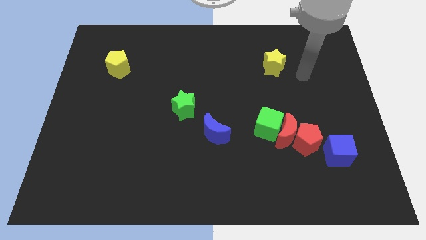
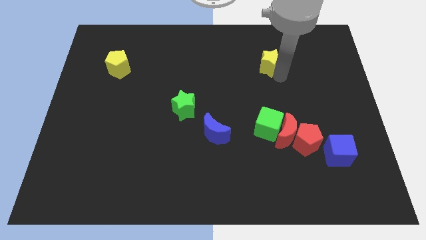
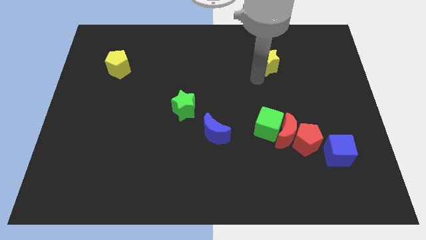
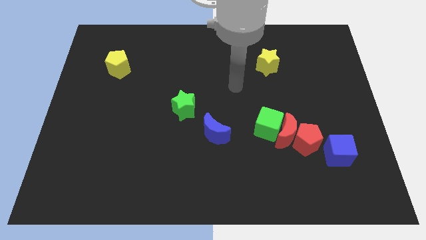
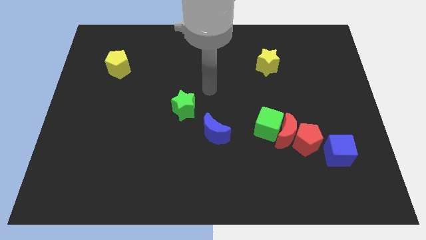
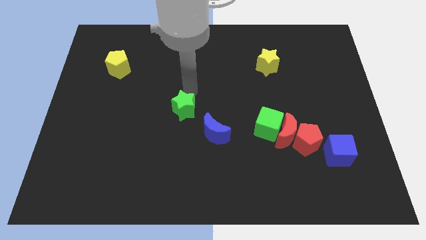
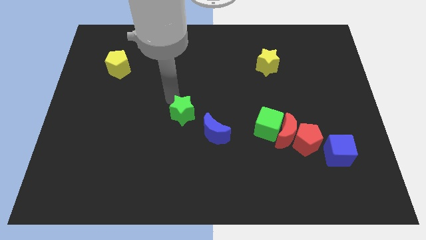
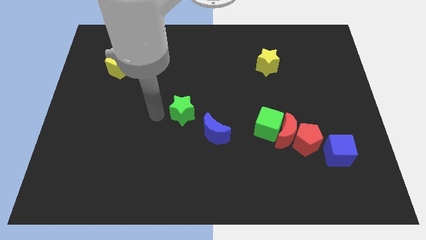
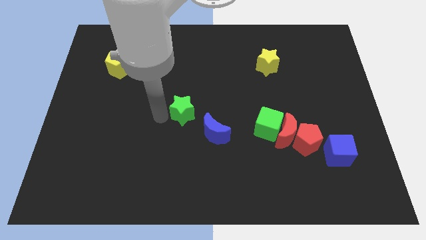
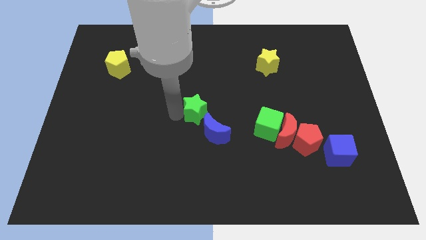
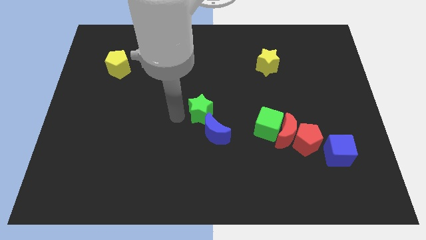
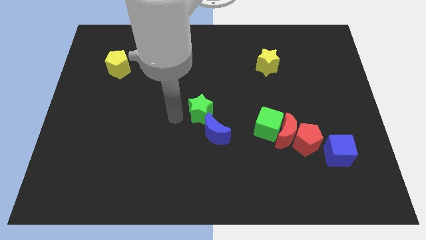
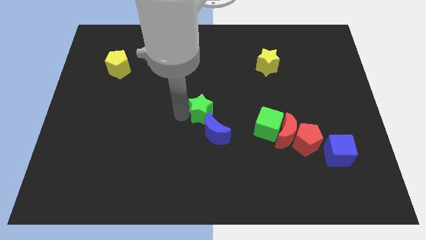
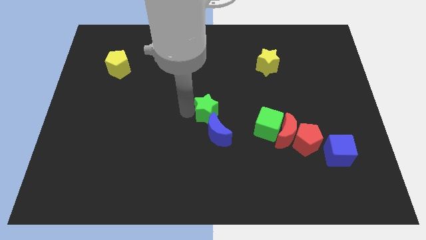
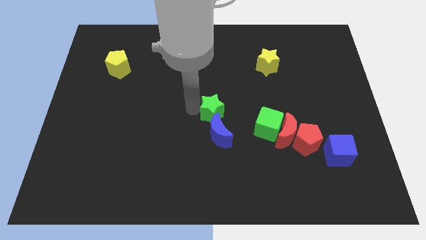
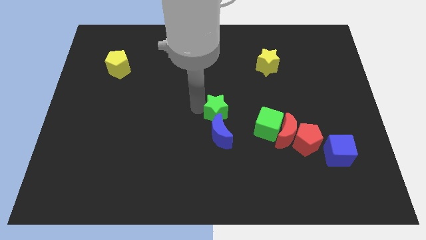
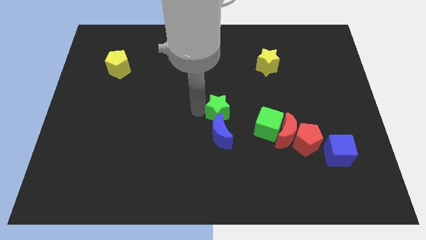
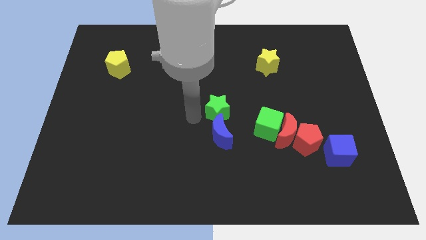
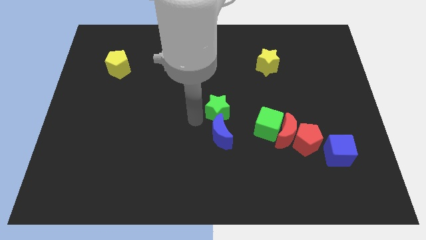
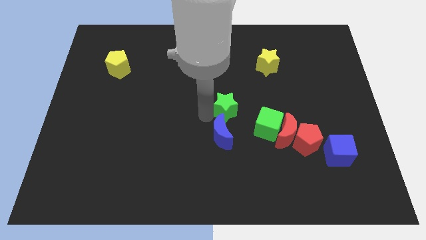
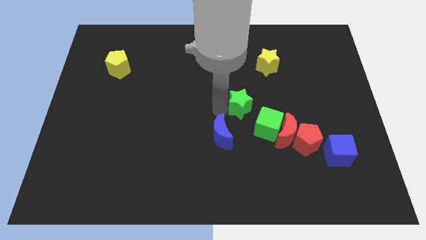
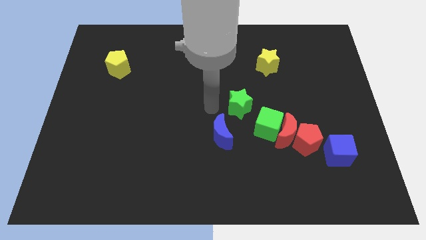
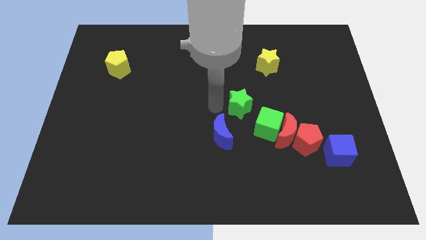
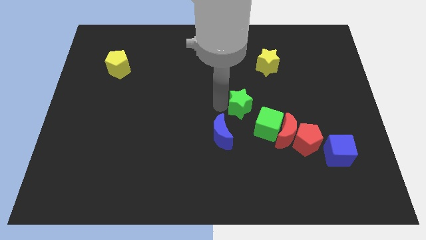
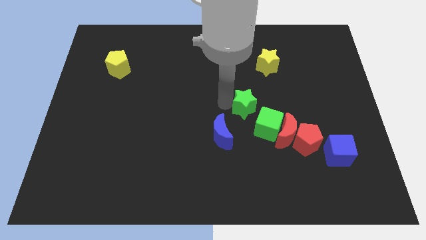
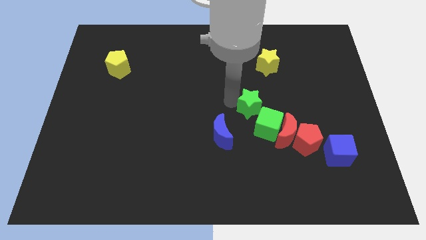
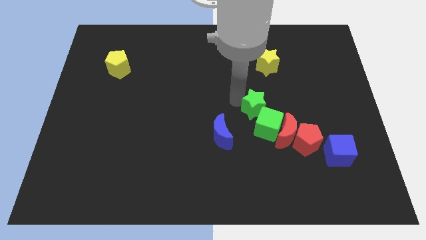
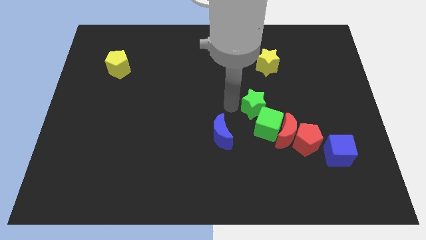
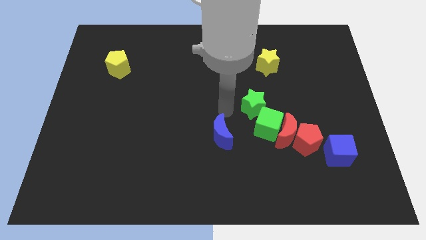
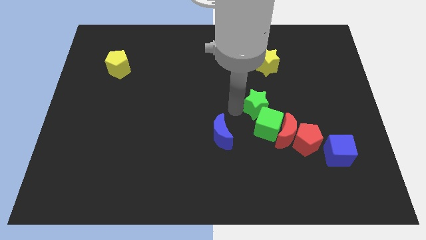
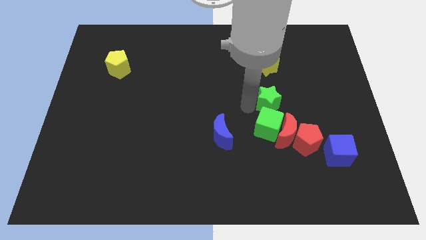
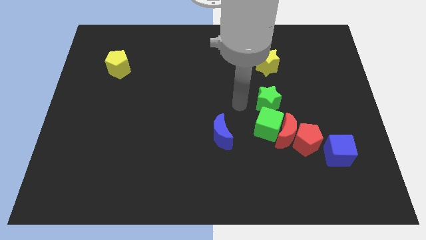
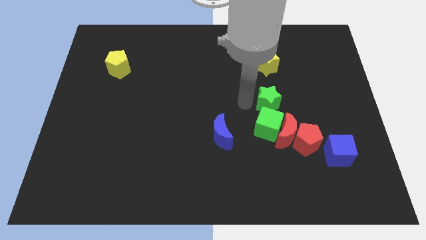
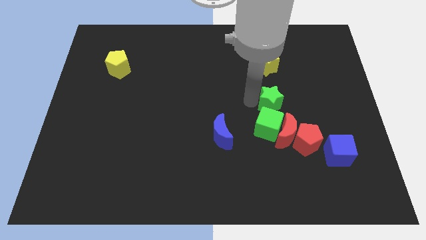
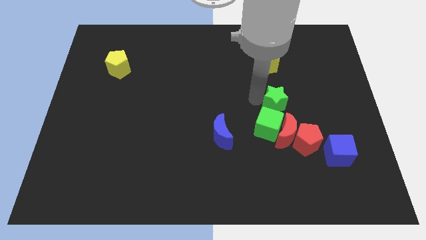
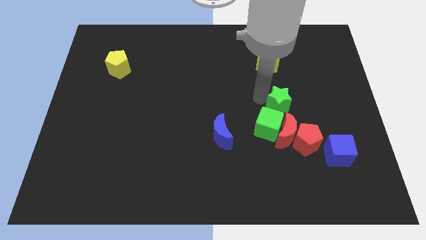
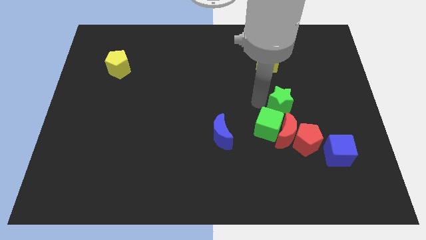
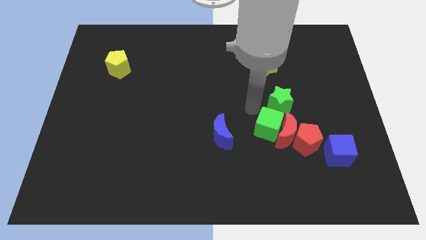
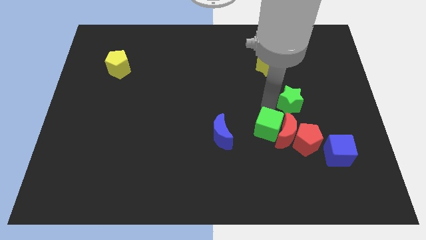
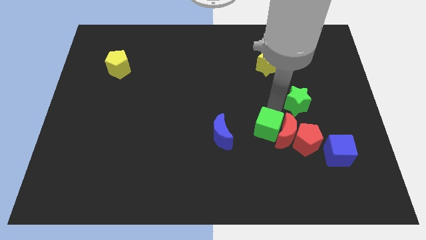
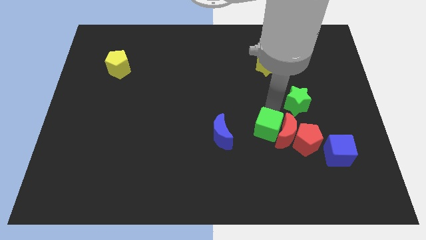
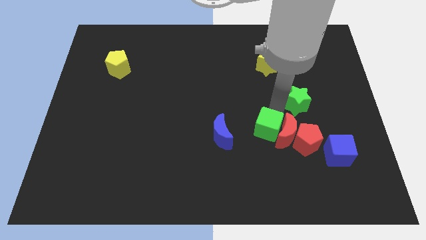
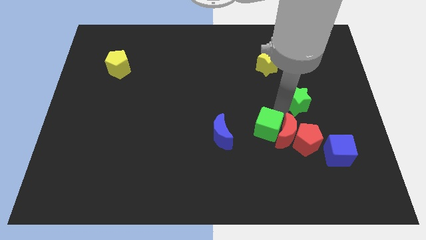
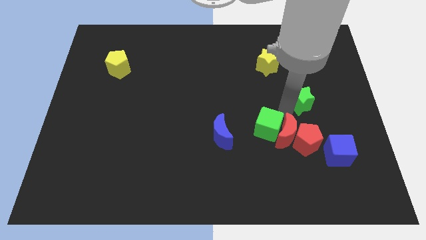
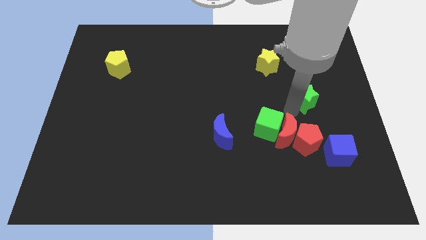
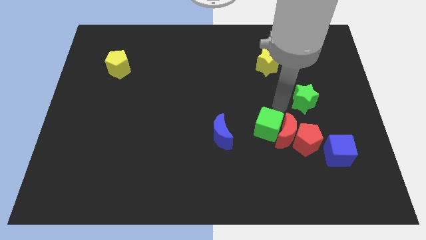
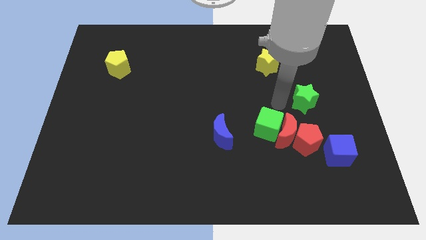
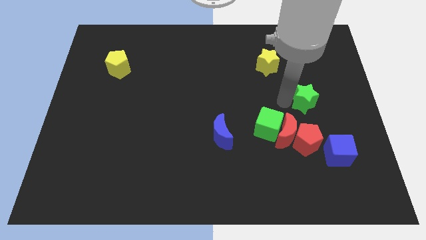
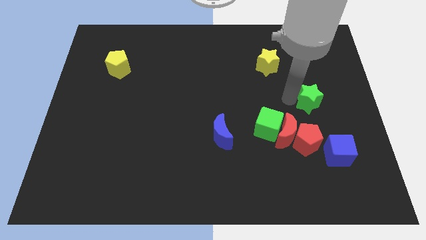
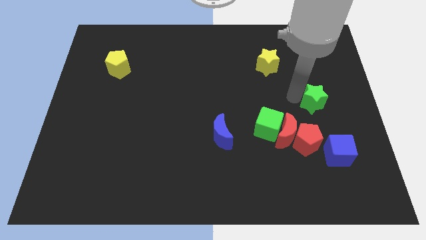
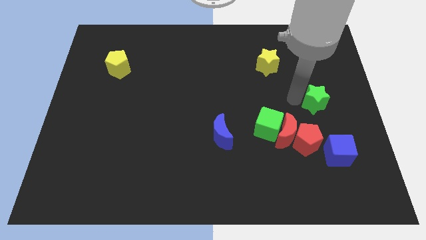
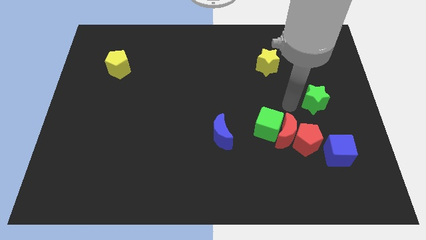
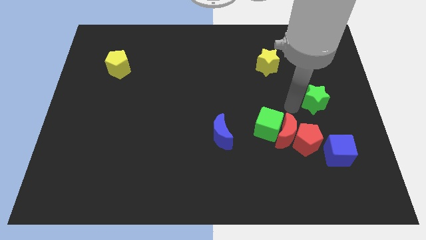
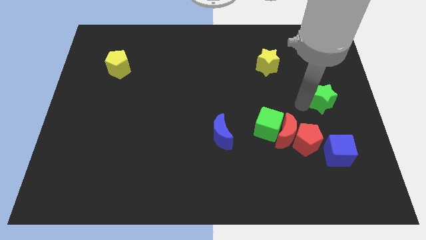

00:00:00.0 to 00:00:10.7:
push the green star to the right side

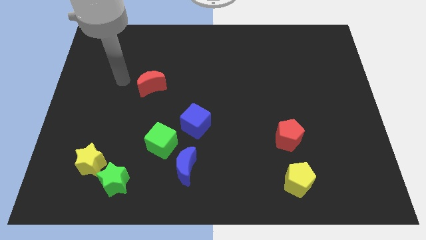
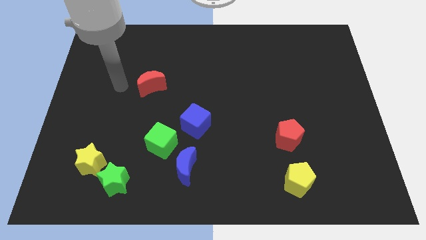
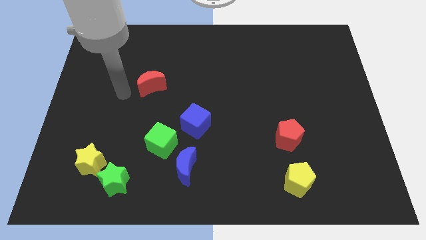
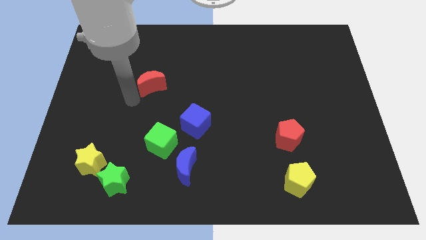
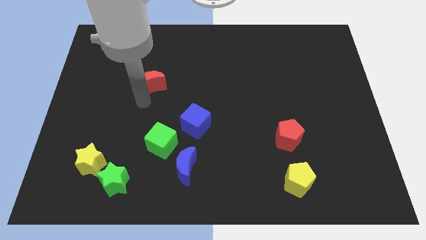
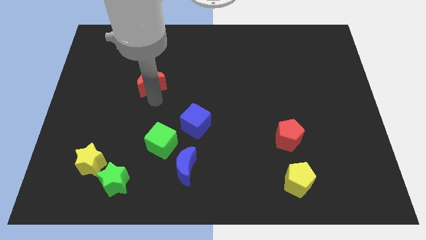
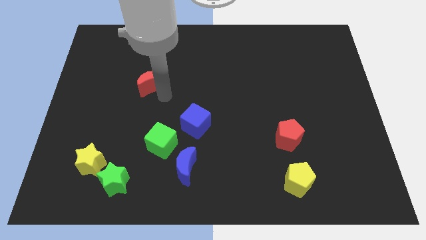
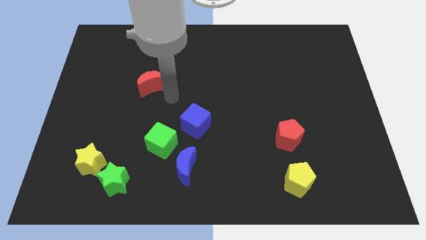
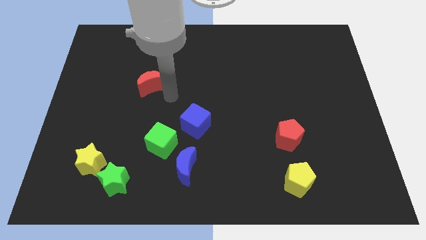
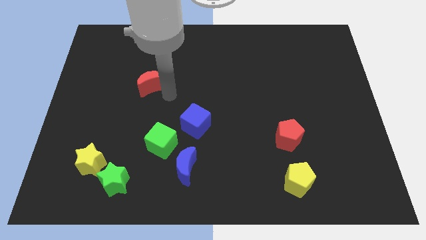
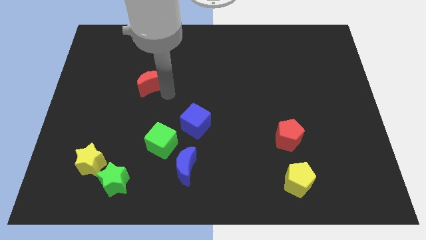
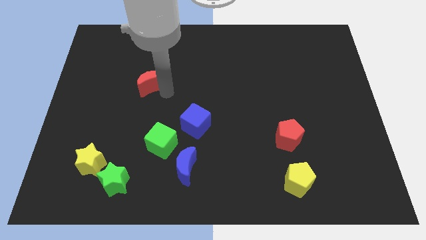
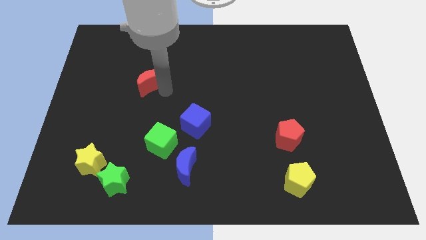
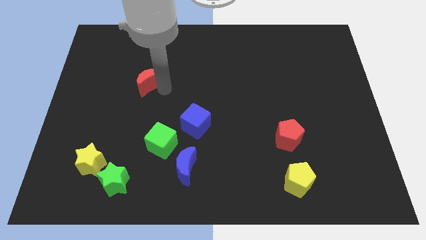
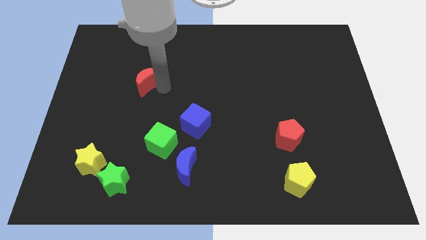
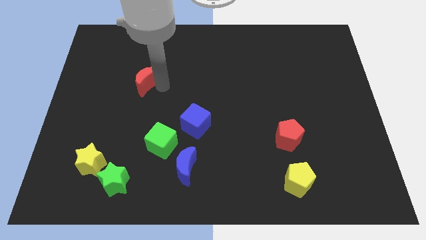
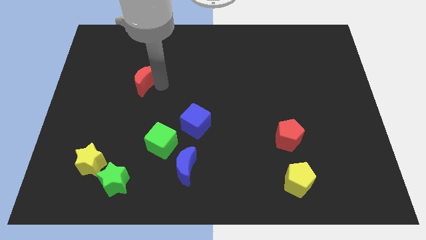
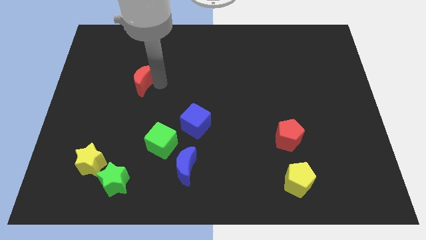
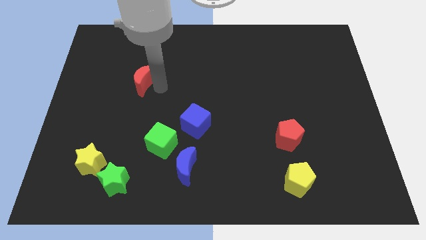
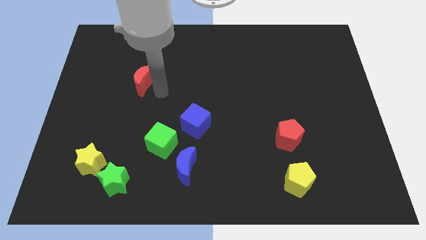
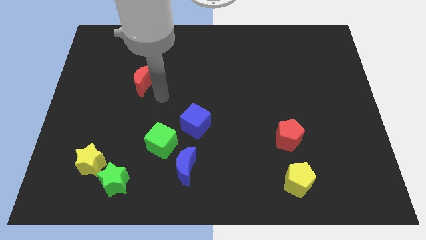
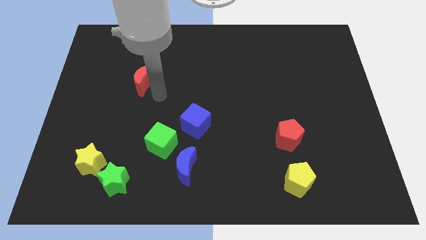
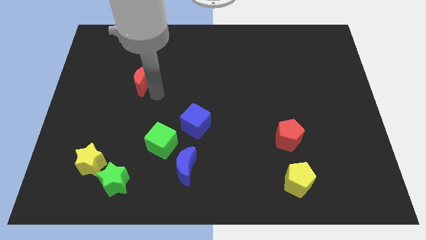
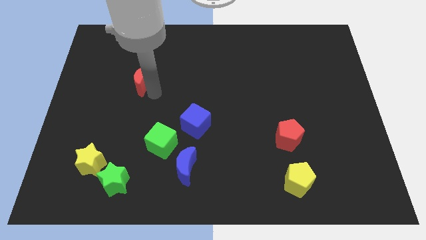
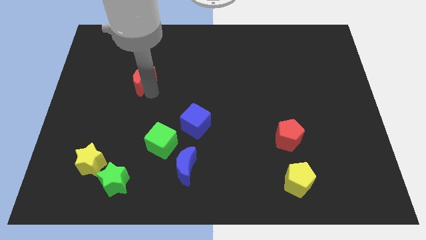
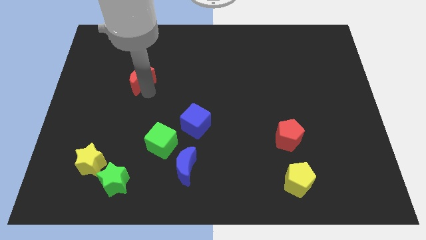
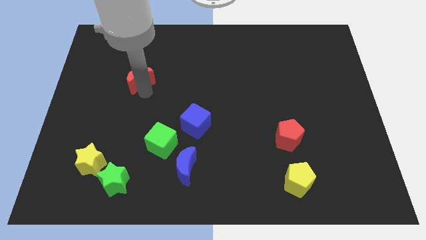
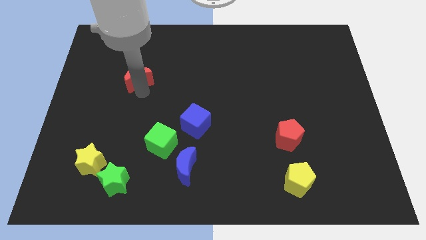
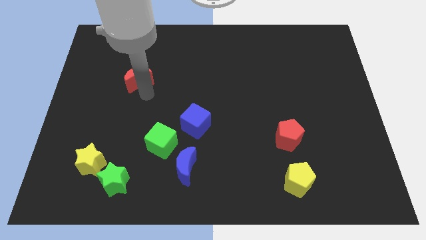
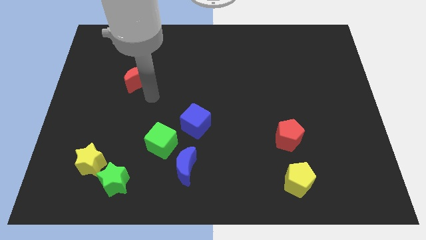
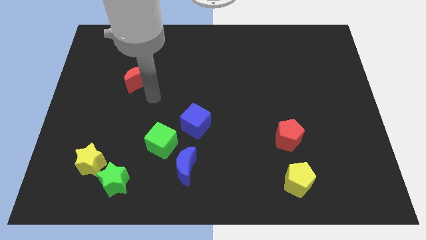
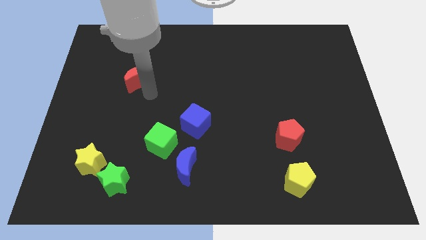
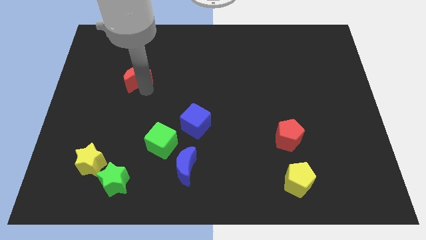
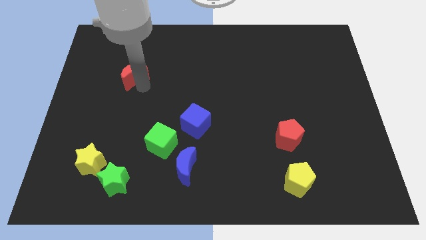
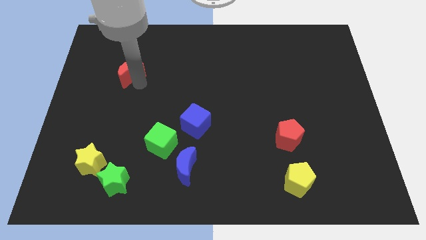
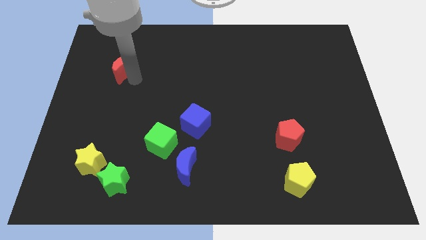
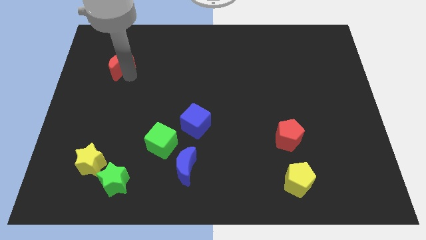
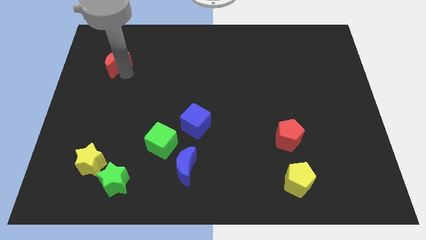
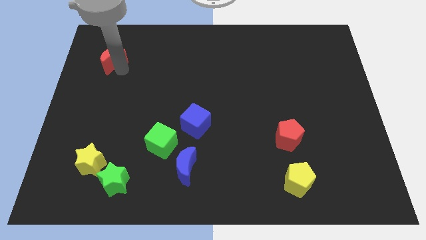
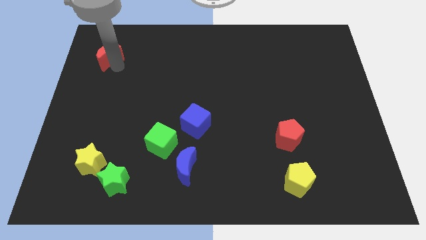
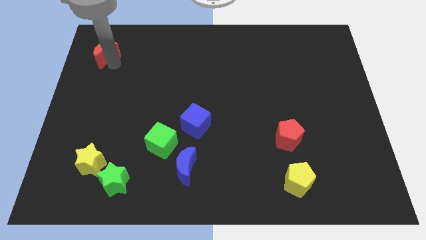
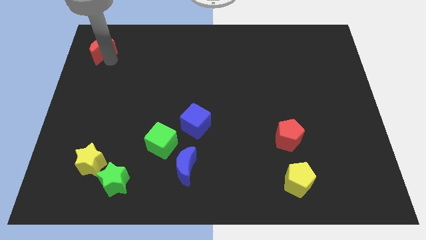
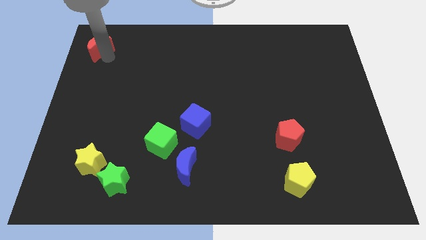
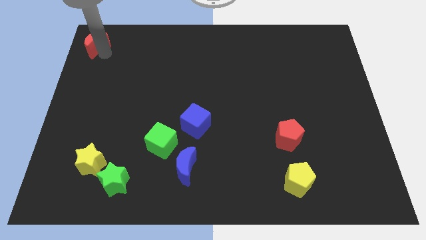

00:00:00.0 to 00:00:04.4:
push the red moon to the upper left corner
